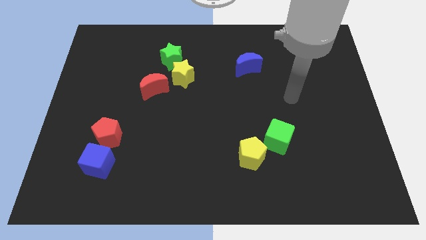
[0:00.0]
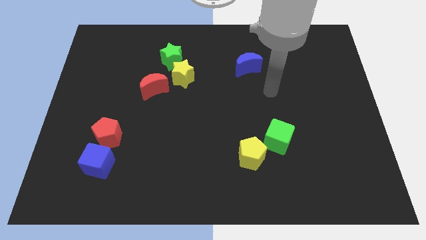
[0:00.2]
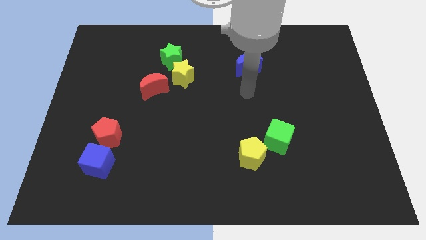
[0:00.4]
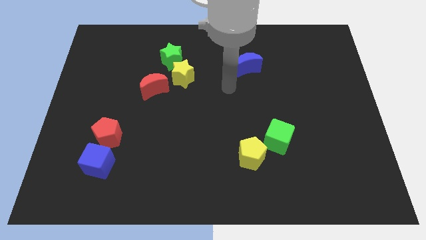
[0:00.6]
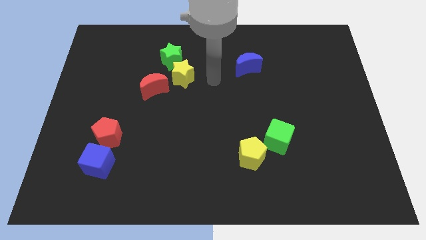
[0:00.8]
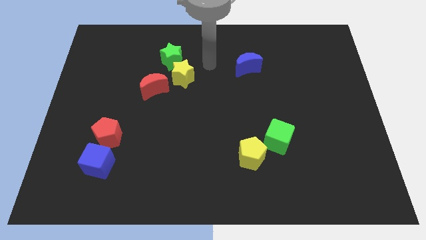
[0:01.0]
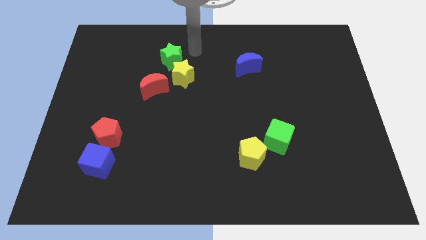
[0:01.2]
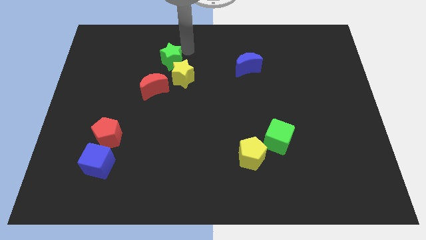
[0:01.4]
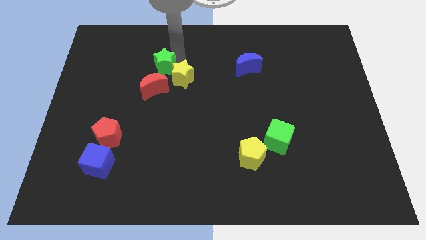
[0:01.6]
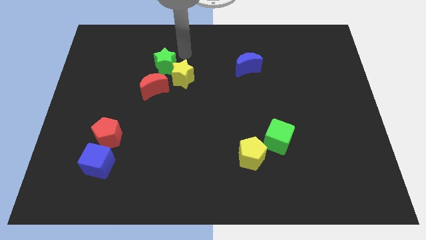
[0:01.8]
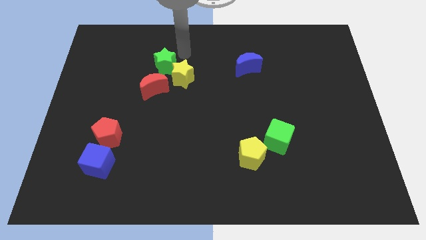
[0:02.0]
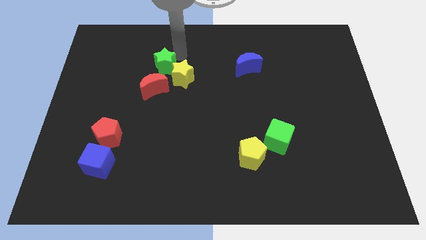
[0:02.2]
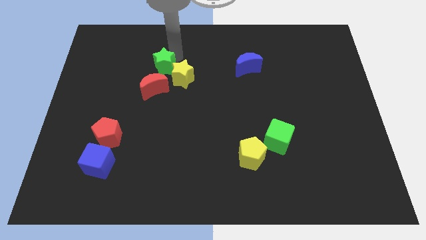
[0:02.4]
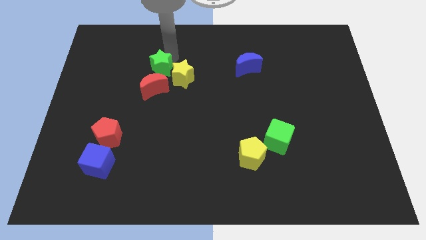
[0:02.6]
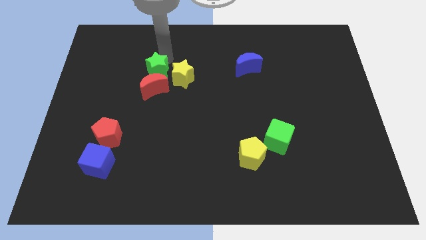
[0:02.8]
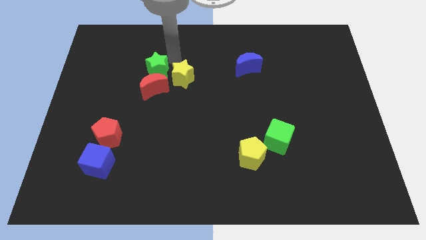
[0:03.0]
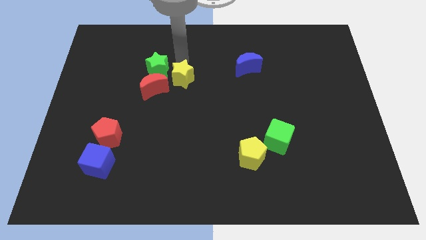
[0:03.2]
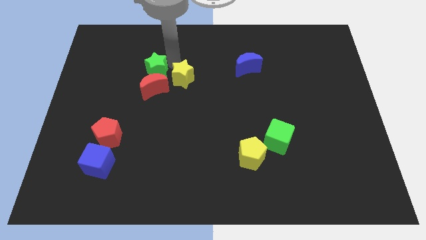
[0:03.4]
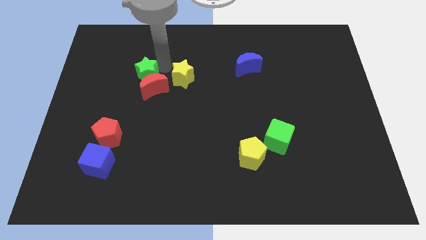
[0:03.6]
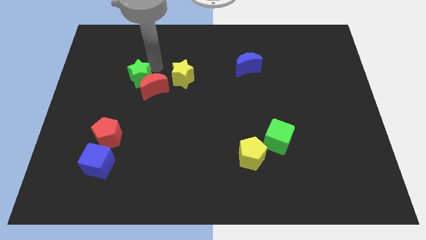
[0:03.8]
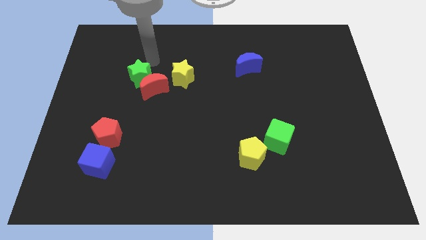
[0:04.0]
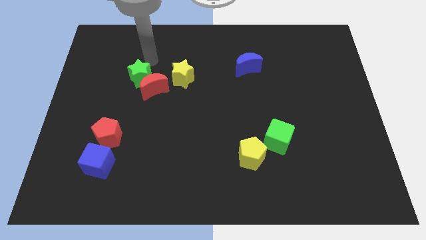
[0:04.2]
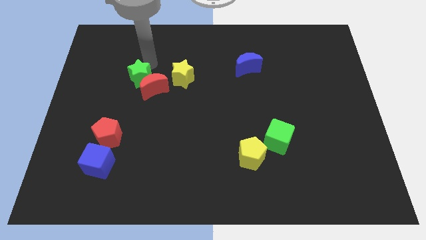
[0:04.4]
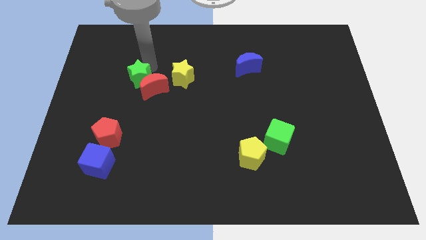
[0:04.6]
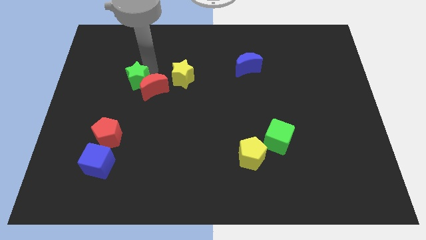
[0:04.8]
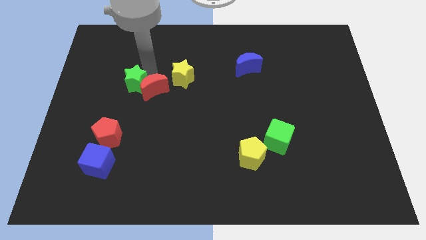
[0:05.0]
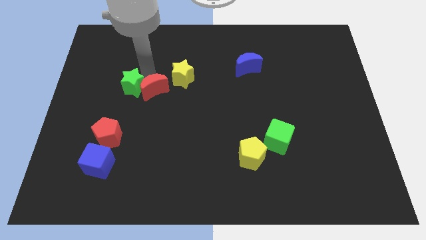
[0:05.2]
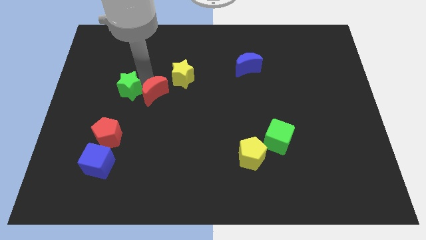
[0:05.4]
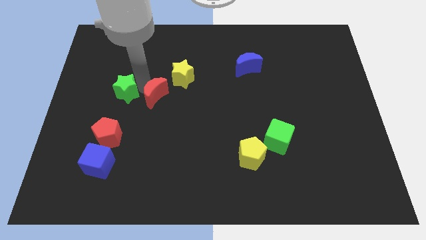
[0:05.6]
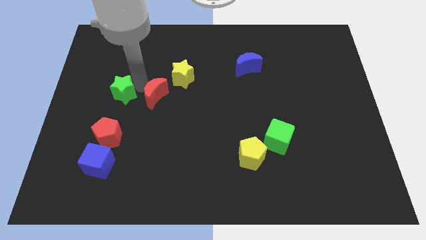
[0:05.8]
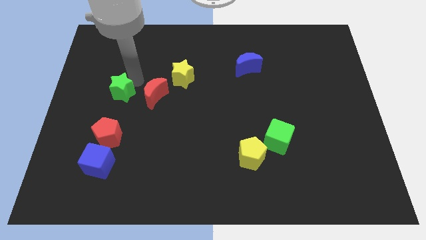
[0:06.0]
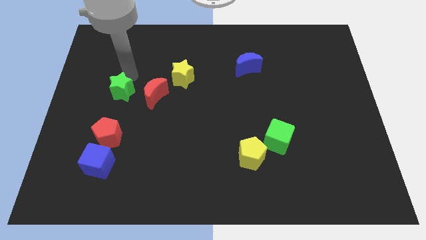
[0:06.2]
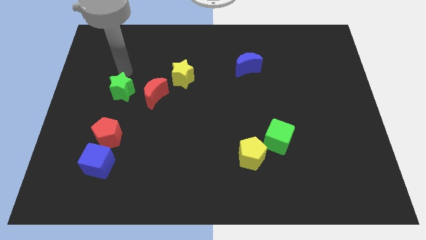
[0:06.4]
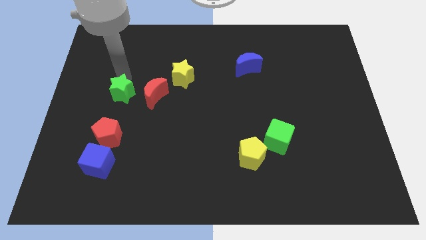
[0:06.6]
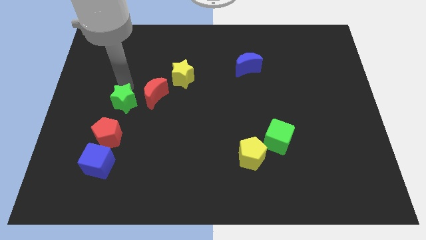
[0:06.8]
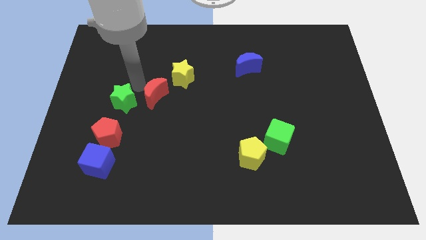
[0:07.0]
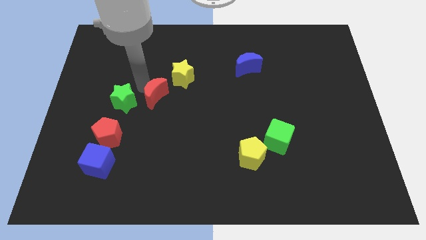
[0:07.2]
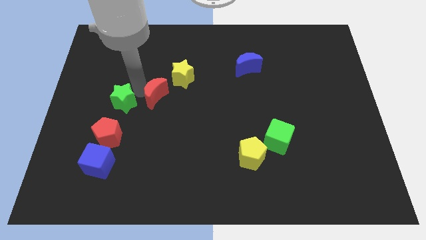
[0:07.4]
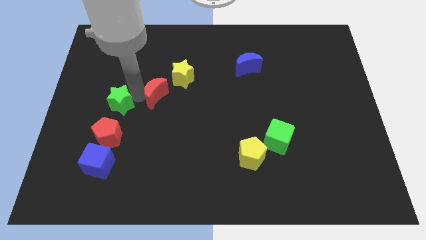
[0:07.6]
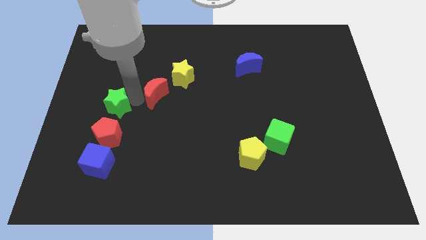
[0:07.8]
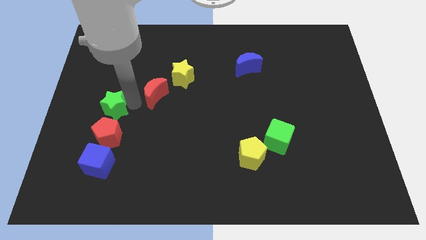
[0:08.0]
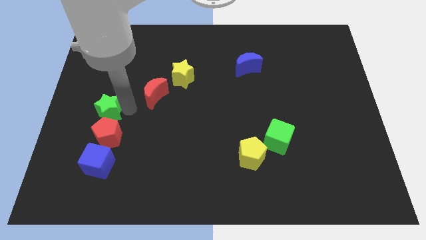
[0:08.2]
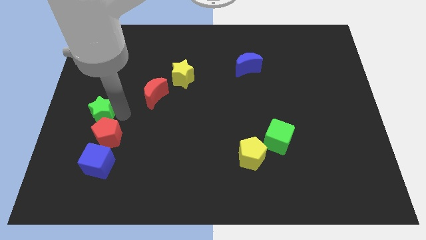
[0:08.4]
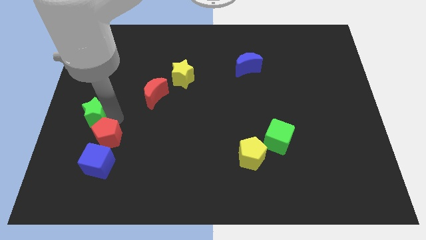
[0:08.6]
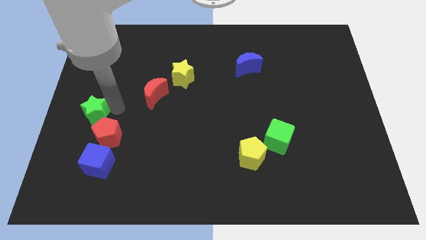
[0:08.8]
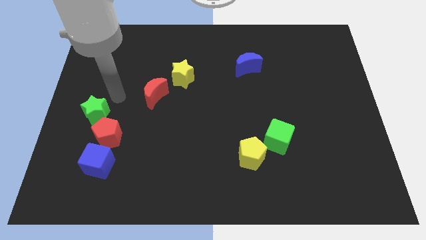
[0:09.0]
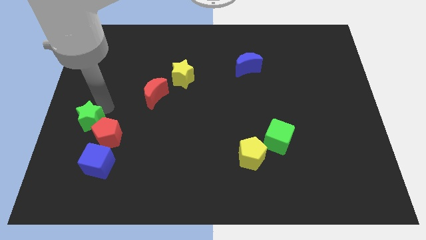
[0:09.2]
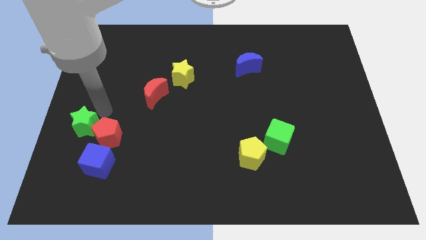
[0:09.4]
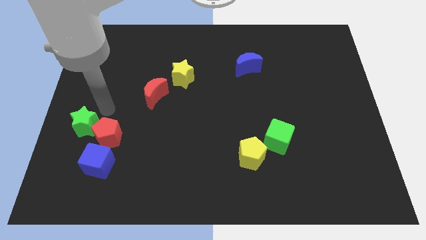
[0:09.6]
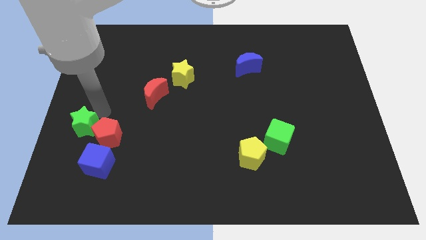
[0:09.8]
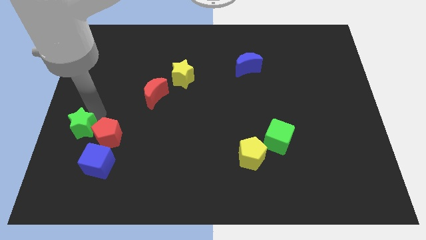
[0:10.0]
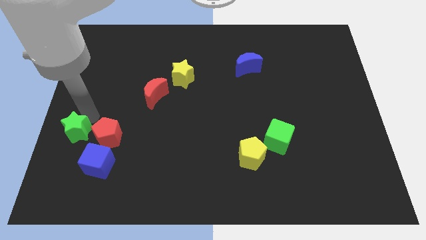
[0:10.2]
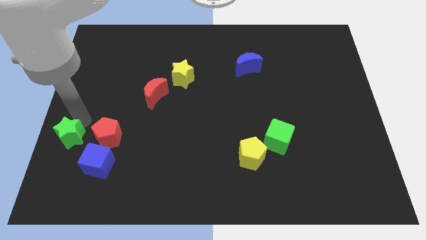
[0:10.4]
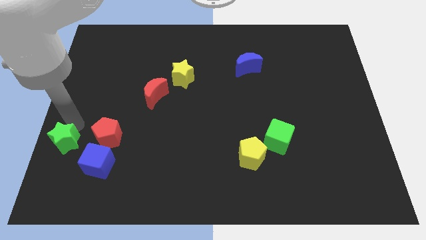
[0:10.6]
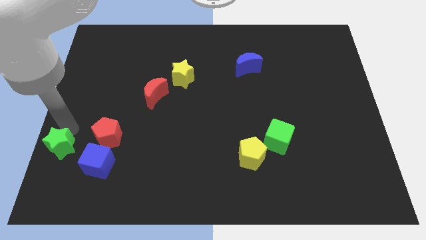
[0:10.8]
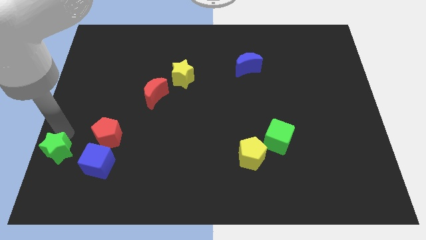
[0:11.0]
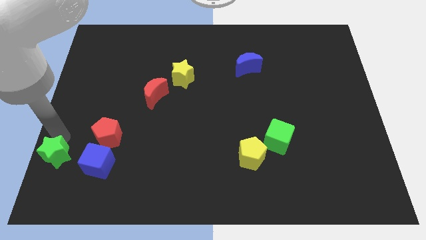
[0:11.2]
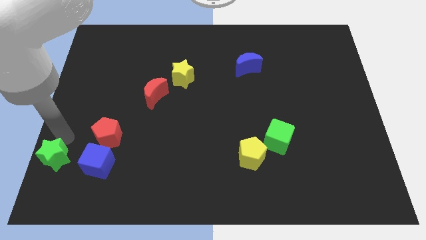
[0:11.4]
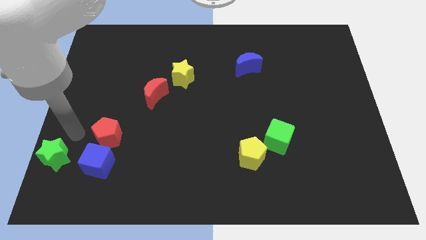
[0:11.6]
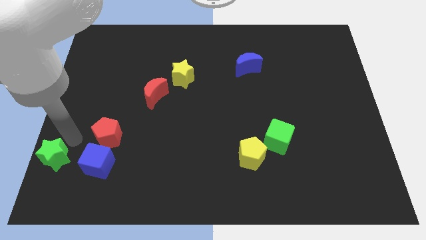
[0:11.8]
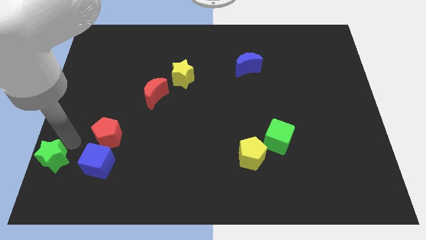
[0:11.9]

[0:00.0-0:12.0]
move the green star to the lower left corner

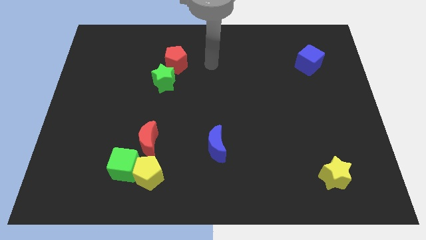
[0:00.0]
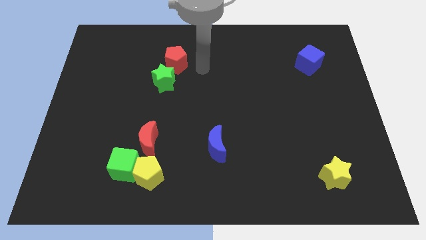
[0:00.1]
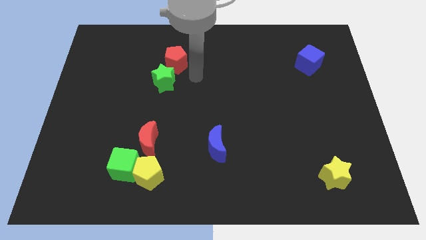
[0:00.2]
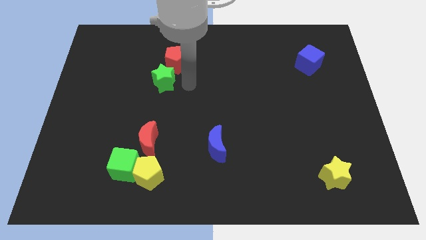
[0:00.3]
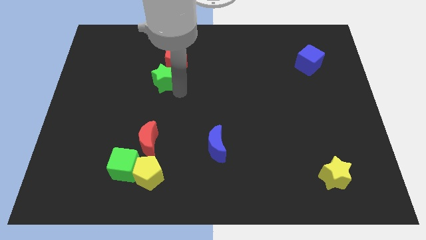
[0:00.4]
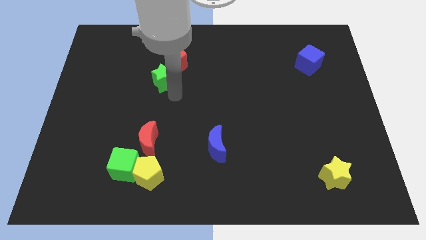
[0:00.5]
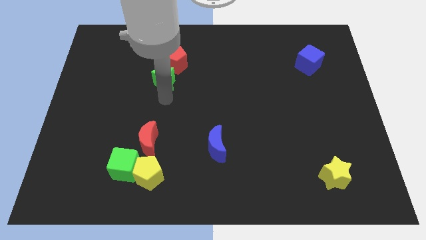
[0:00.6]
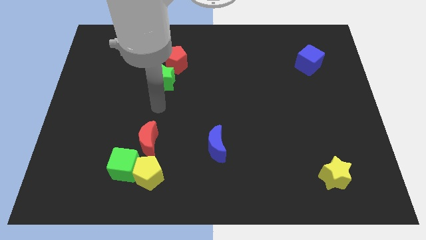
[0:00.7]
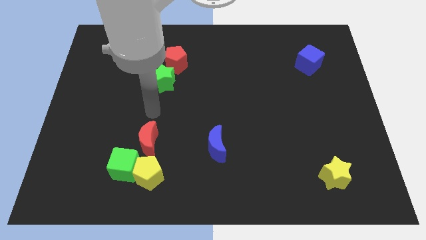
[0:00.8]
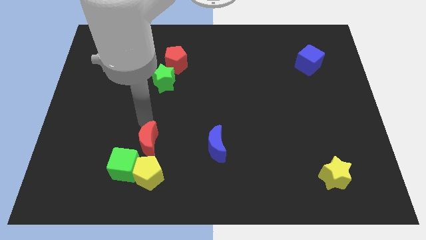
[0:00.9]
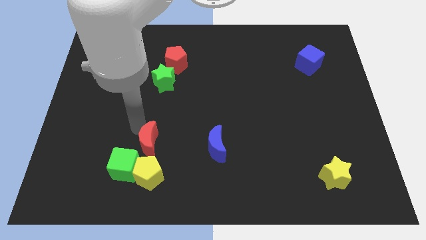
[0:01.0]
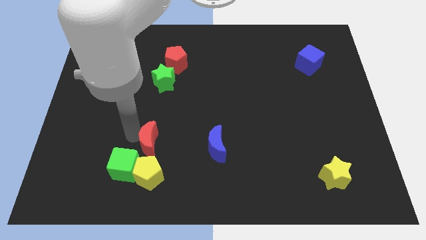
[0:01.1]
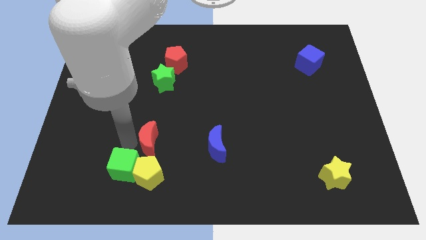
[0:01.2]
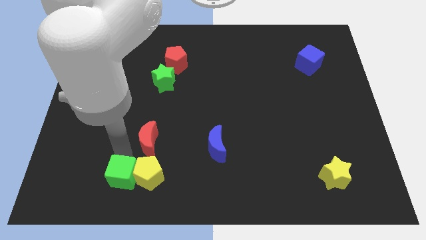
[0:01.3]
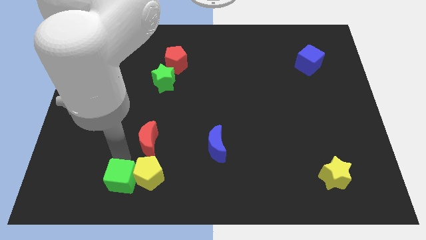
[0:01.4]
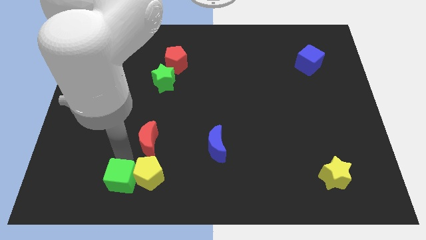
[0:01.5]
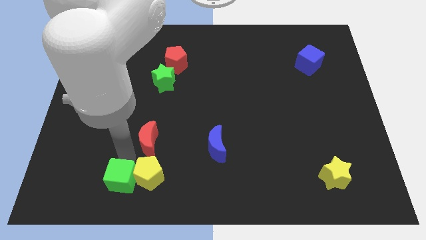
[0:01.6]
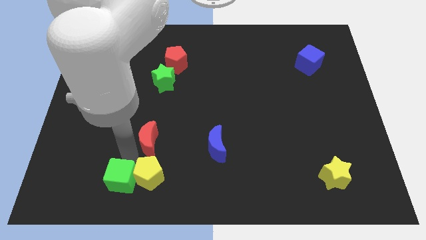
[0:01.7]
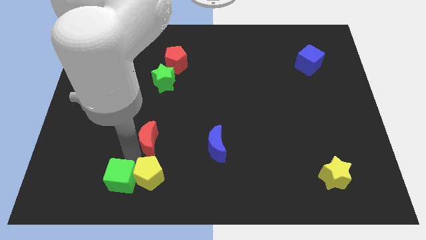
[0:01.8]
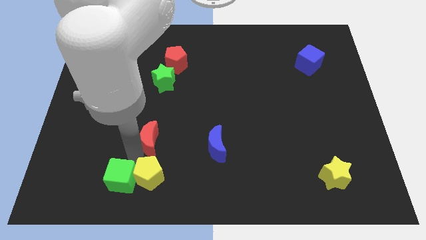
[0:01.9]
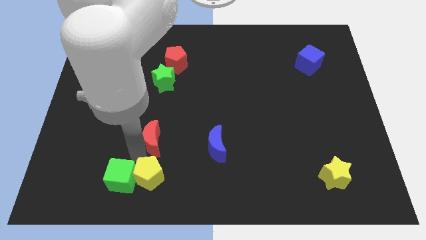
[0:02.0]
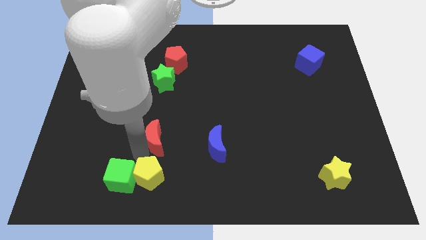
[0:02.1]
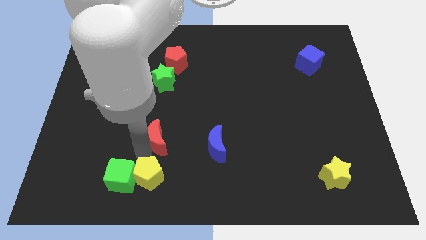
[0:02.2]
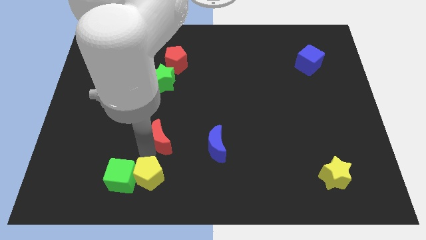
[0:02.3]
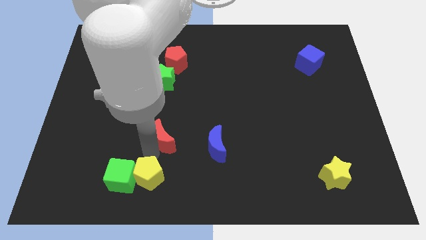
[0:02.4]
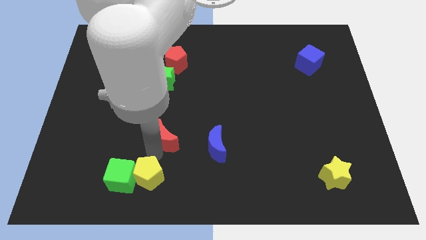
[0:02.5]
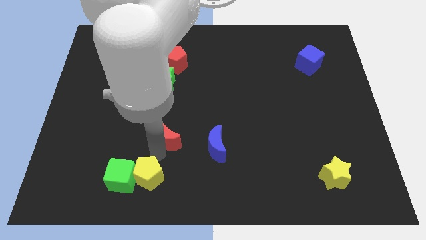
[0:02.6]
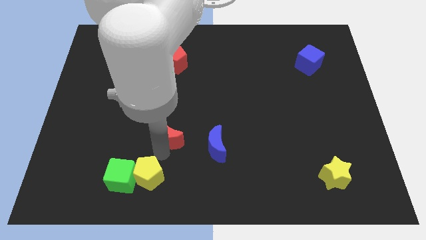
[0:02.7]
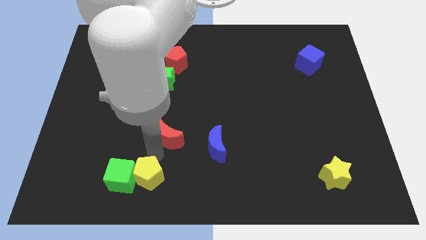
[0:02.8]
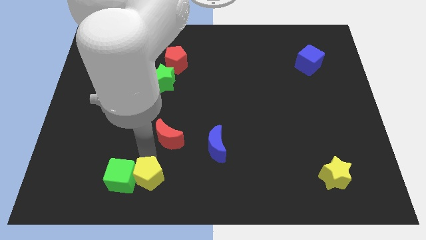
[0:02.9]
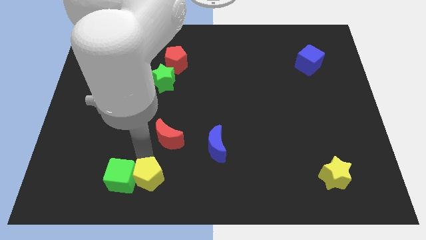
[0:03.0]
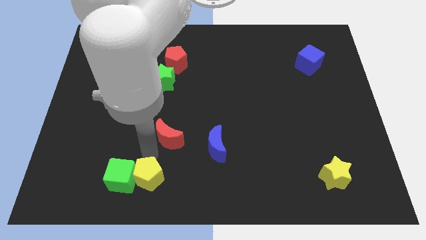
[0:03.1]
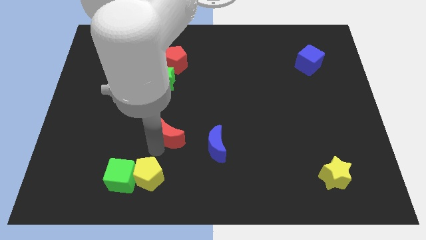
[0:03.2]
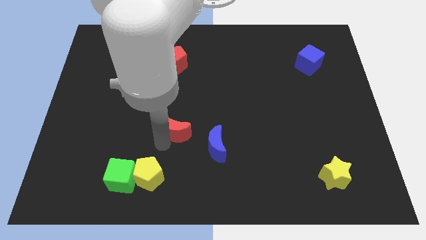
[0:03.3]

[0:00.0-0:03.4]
slide the red moon to the center
